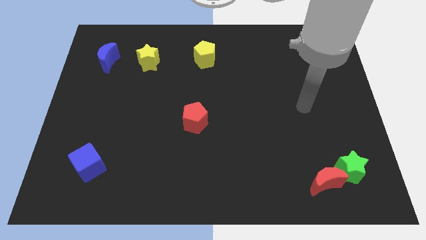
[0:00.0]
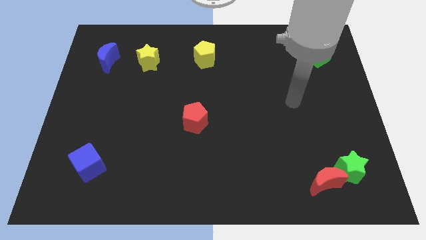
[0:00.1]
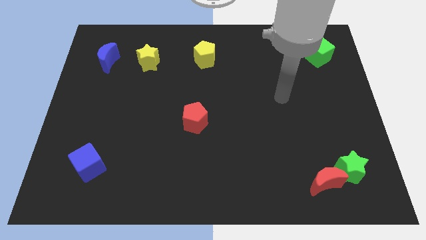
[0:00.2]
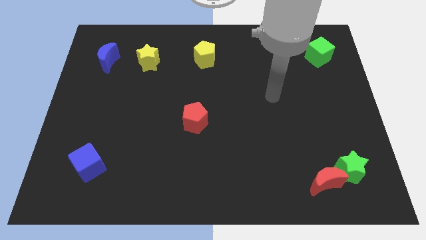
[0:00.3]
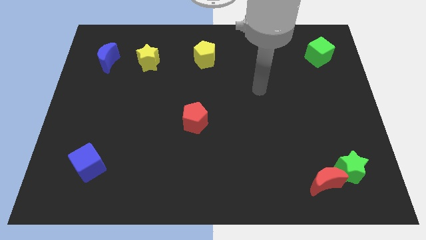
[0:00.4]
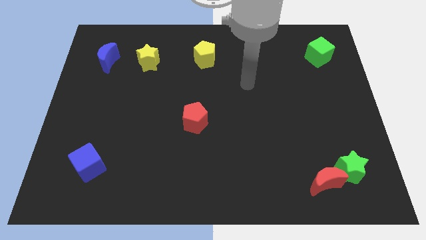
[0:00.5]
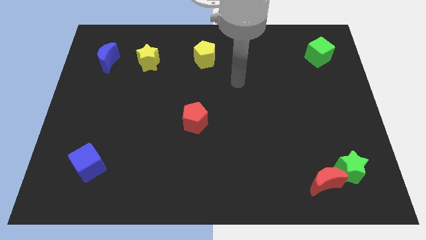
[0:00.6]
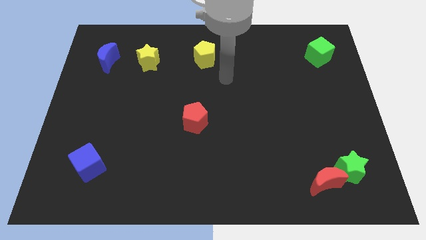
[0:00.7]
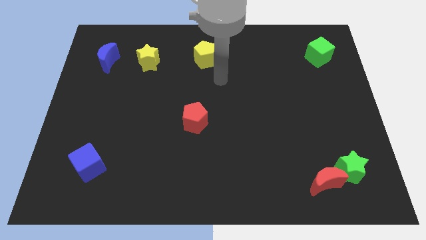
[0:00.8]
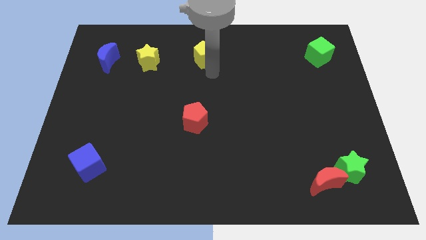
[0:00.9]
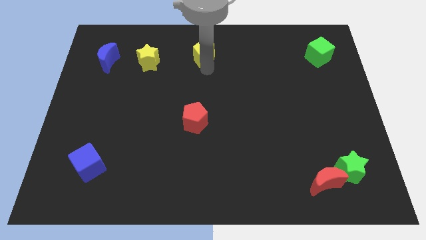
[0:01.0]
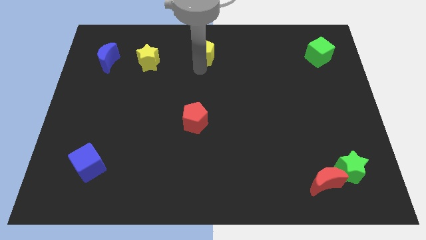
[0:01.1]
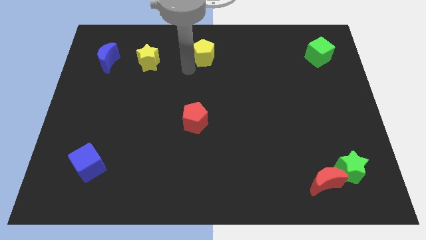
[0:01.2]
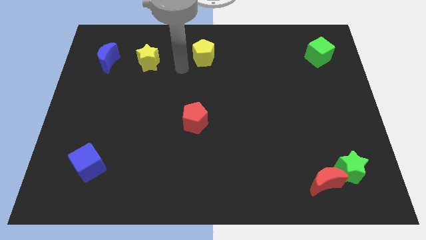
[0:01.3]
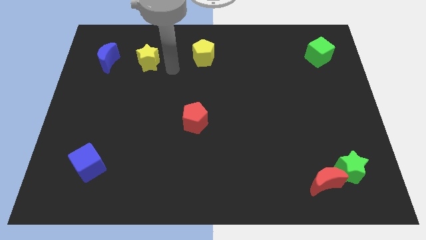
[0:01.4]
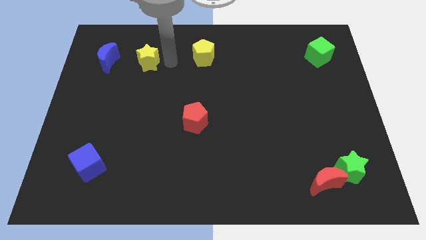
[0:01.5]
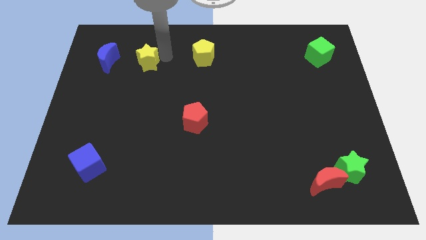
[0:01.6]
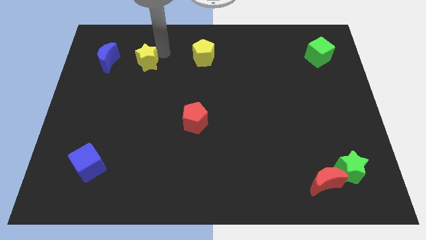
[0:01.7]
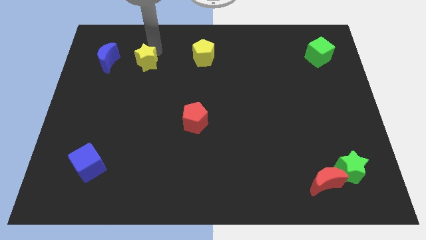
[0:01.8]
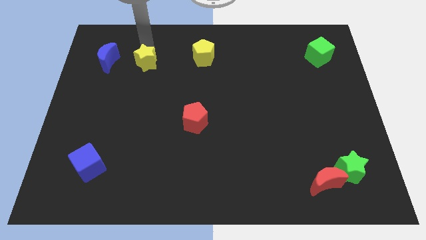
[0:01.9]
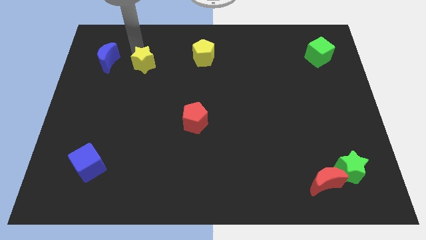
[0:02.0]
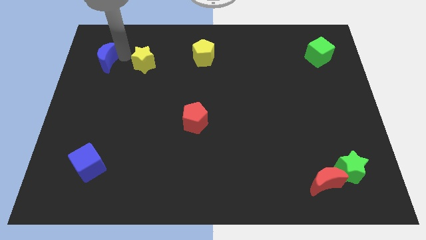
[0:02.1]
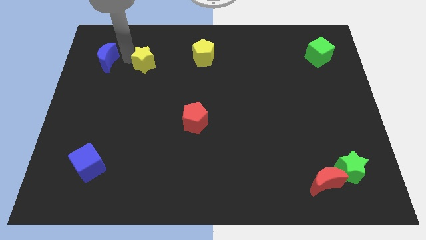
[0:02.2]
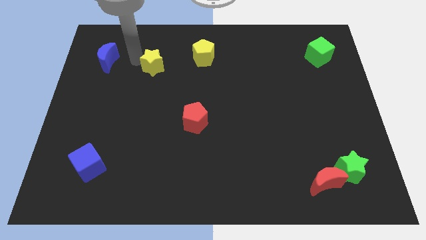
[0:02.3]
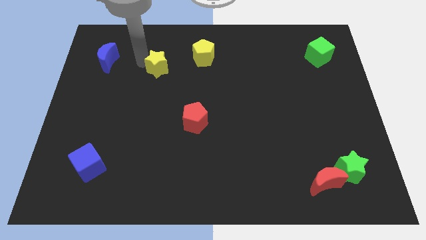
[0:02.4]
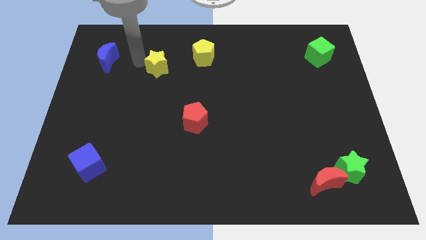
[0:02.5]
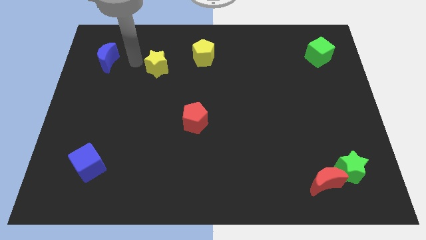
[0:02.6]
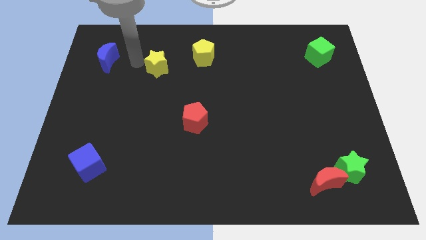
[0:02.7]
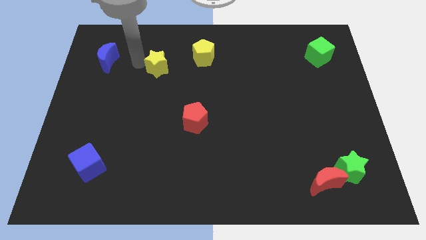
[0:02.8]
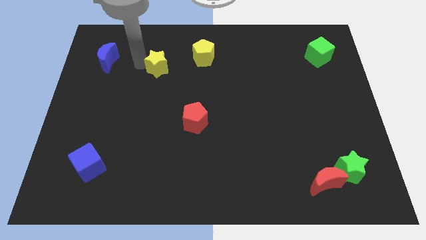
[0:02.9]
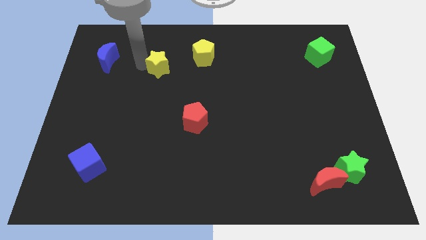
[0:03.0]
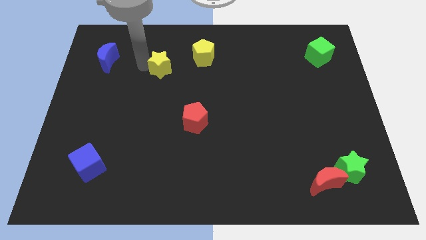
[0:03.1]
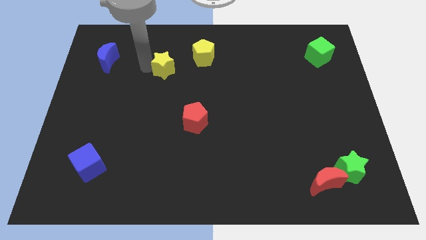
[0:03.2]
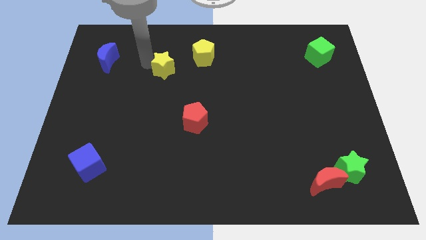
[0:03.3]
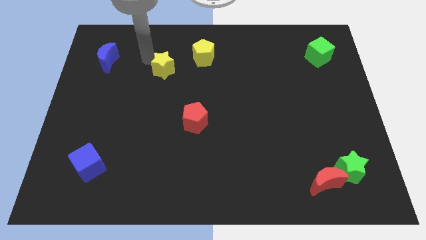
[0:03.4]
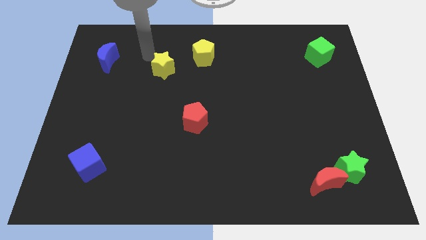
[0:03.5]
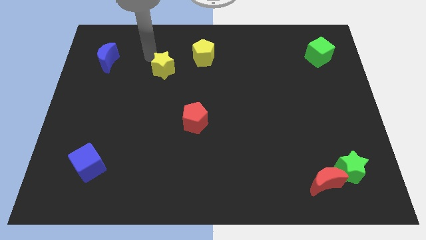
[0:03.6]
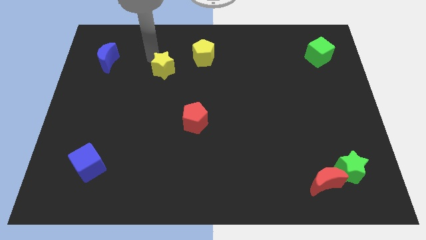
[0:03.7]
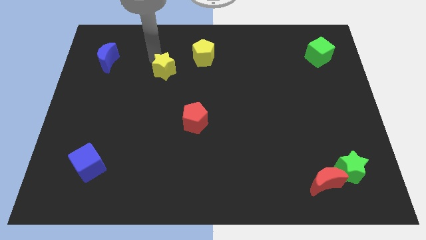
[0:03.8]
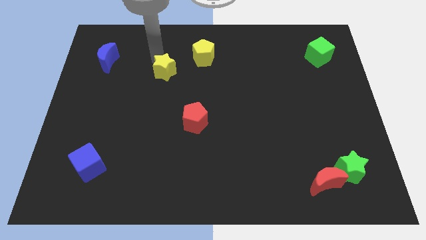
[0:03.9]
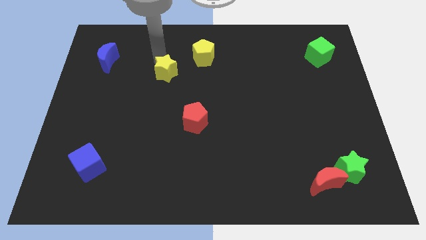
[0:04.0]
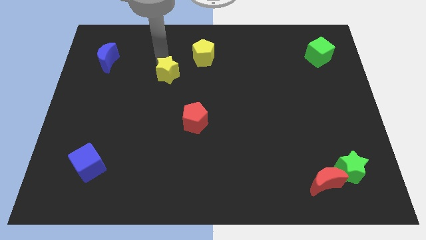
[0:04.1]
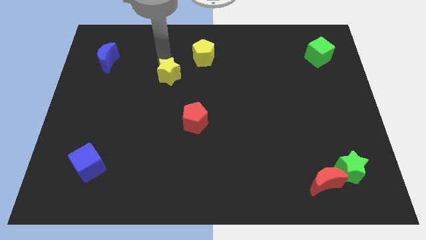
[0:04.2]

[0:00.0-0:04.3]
slightly push the yellow star downwards and right

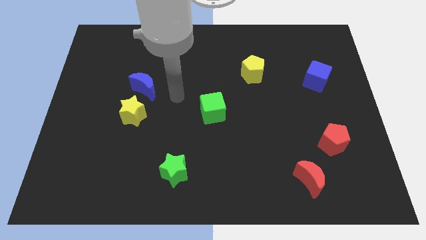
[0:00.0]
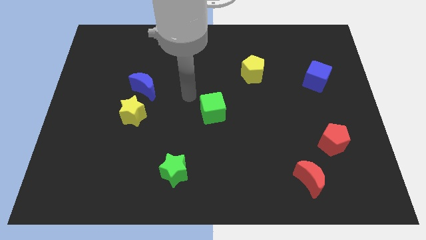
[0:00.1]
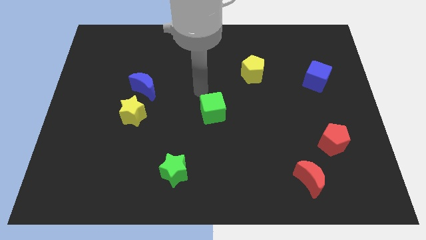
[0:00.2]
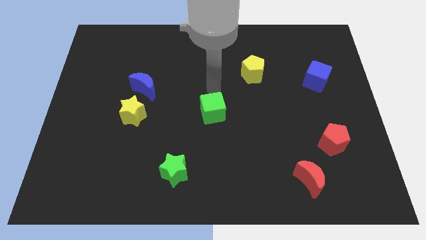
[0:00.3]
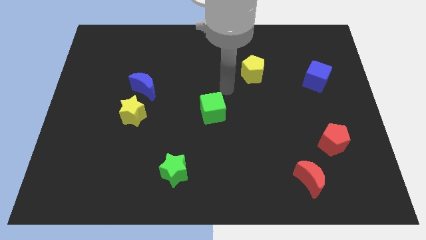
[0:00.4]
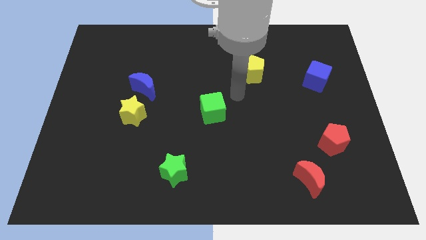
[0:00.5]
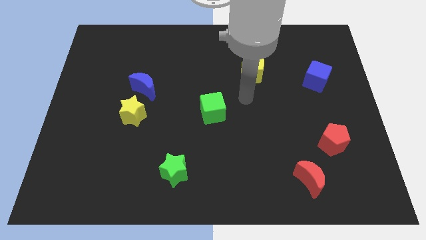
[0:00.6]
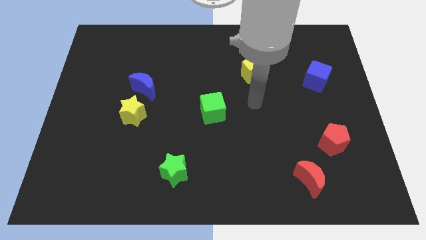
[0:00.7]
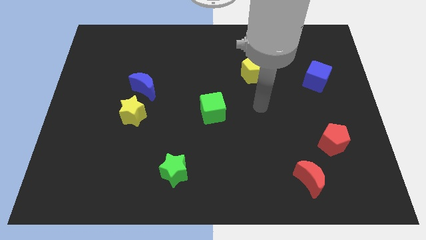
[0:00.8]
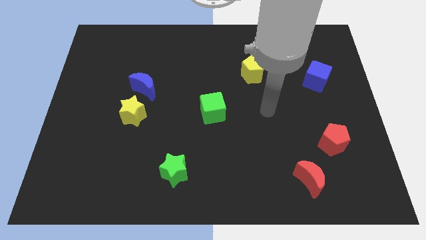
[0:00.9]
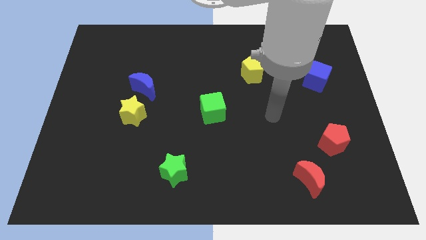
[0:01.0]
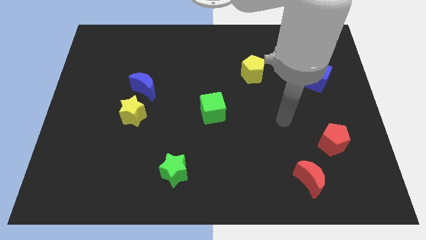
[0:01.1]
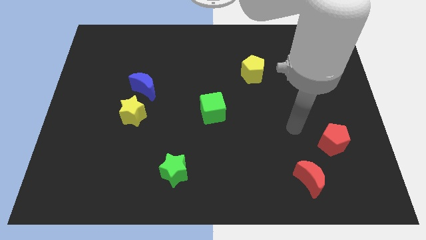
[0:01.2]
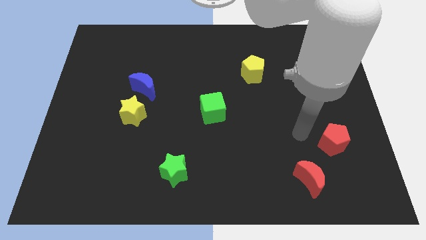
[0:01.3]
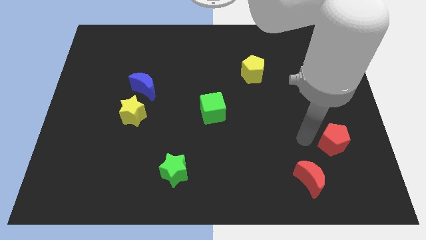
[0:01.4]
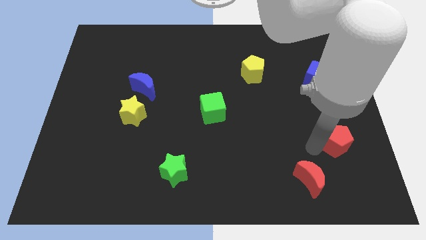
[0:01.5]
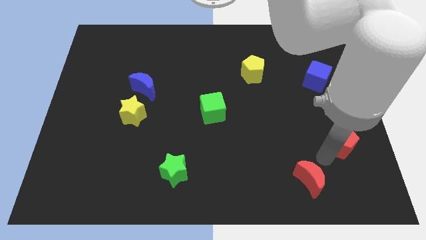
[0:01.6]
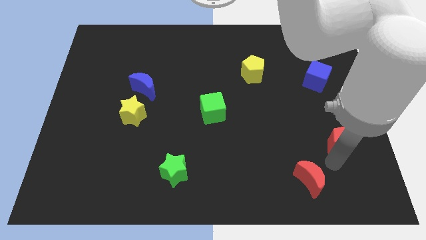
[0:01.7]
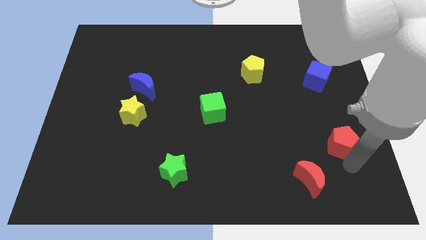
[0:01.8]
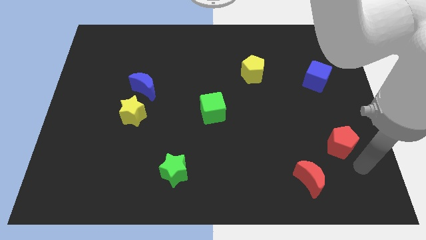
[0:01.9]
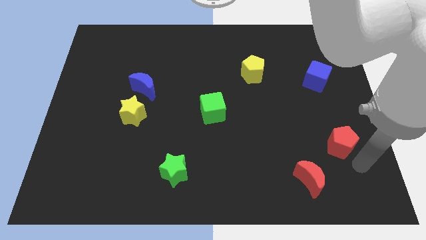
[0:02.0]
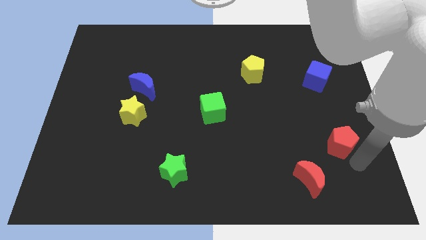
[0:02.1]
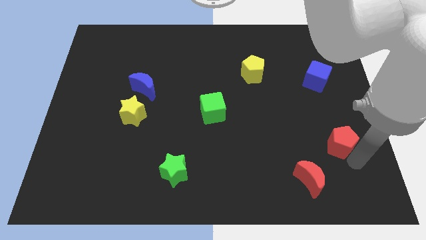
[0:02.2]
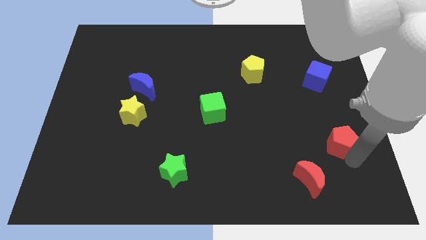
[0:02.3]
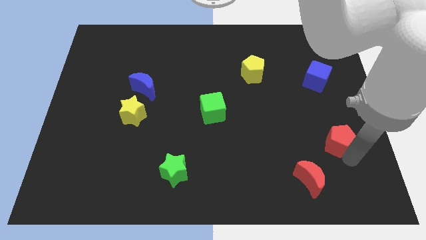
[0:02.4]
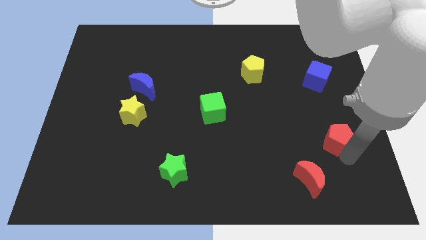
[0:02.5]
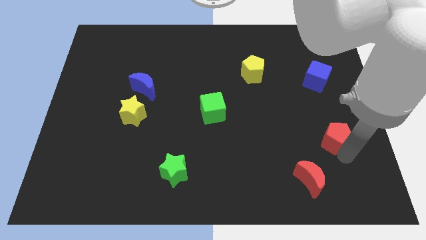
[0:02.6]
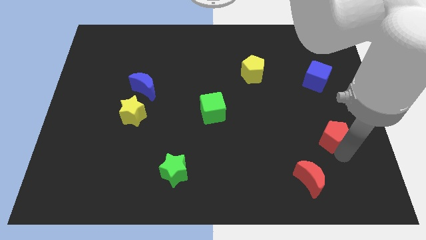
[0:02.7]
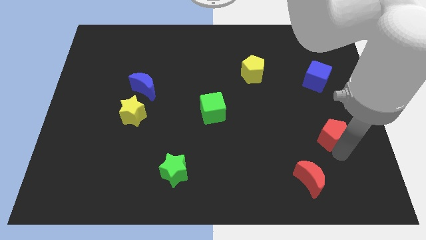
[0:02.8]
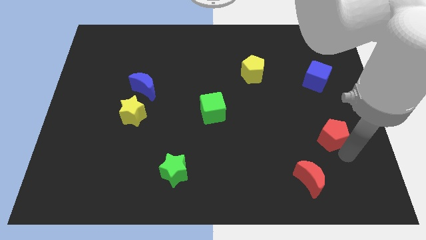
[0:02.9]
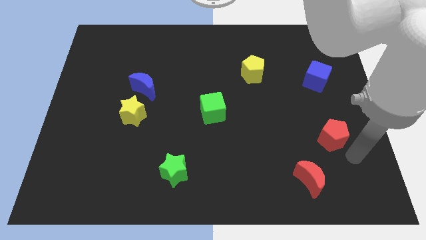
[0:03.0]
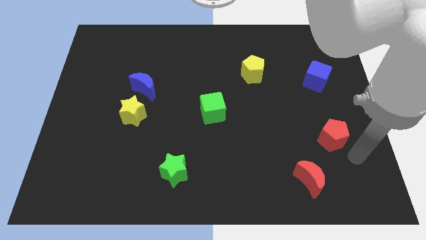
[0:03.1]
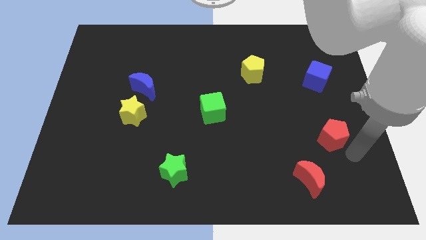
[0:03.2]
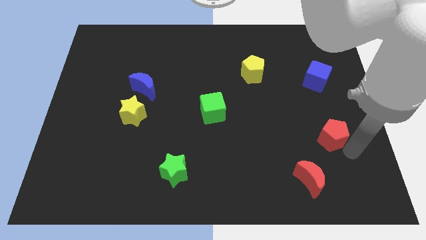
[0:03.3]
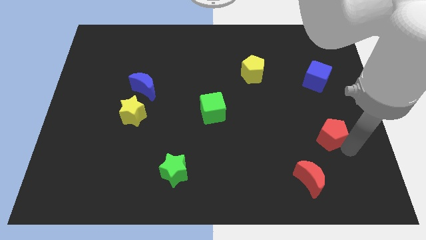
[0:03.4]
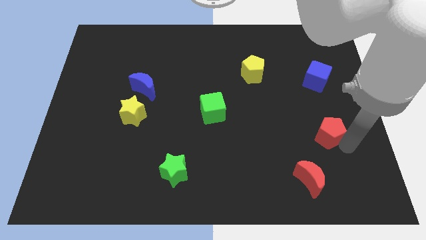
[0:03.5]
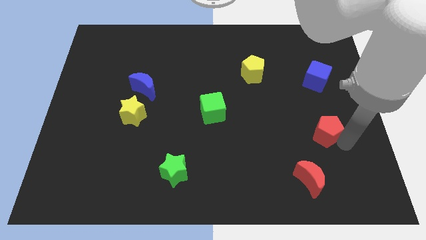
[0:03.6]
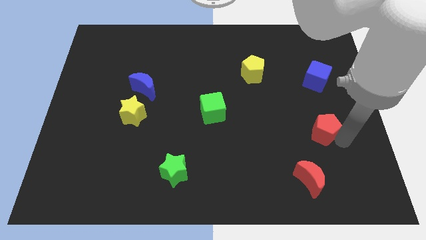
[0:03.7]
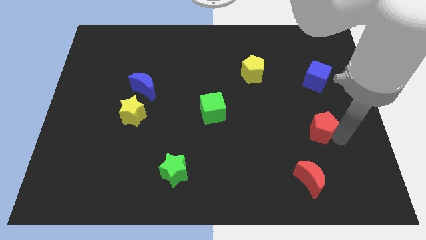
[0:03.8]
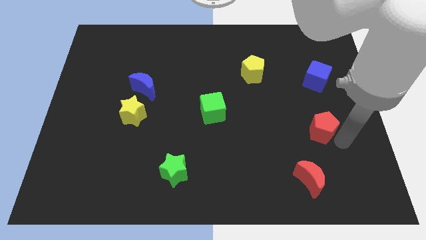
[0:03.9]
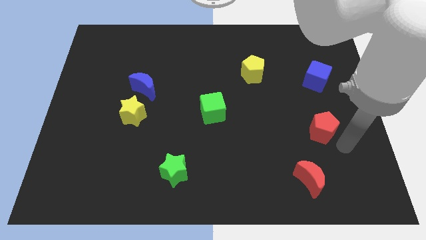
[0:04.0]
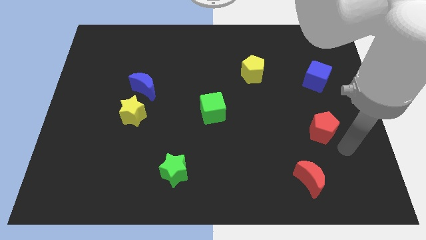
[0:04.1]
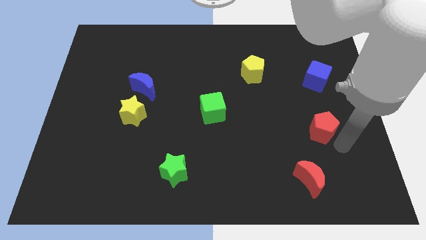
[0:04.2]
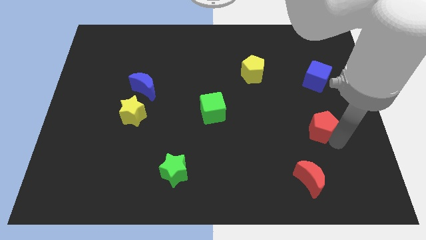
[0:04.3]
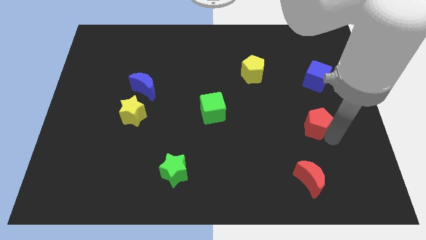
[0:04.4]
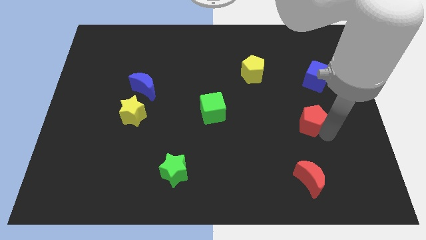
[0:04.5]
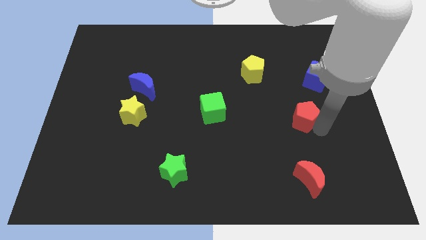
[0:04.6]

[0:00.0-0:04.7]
slightly slide the red pentagon upwards and to the left
